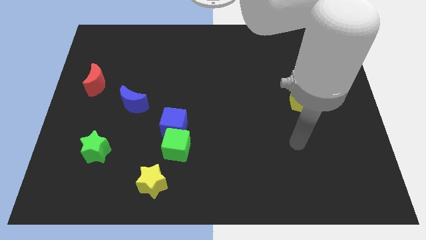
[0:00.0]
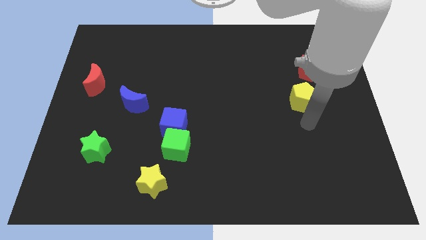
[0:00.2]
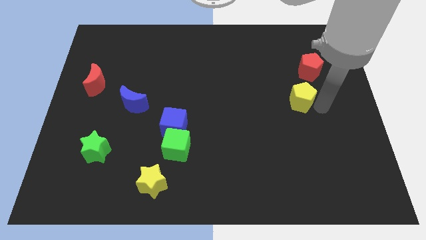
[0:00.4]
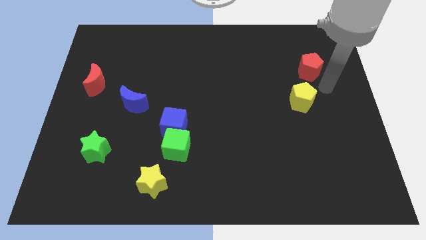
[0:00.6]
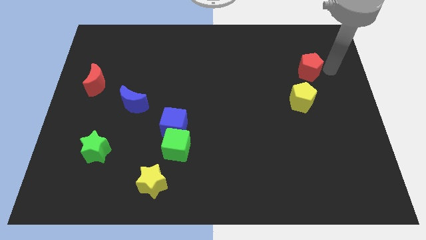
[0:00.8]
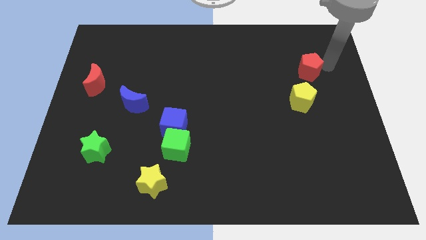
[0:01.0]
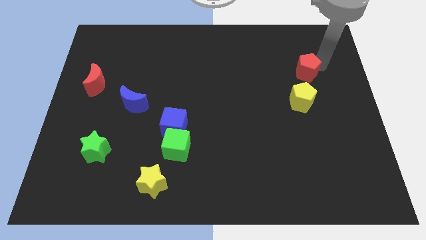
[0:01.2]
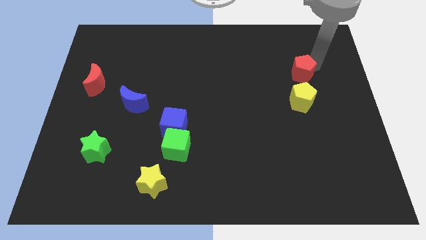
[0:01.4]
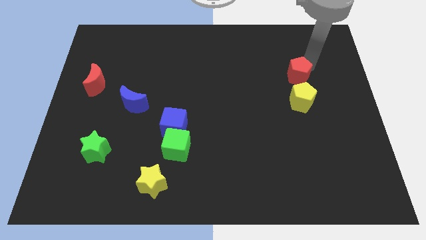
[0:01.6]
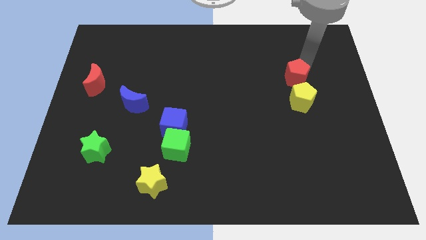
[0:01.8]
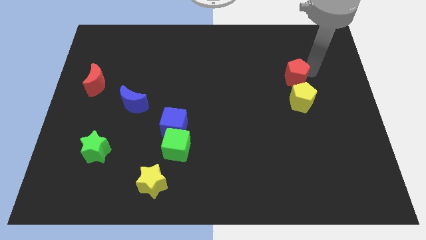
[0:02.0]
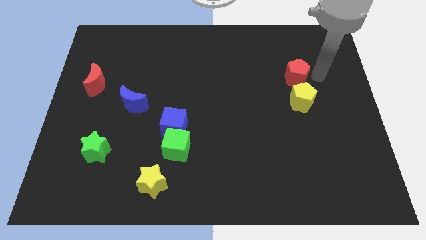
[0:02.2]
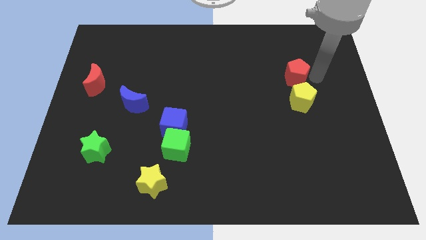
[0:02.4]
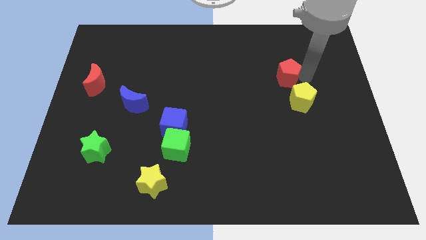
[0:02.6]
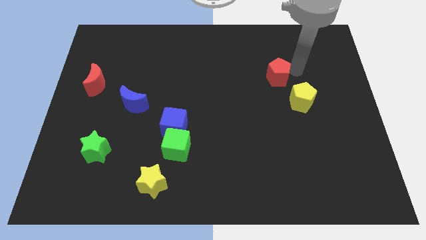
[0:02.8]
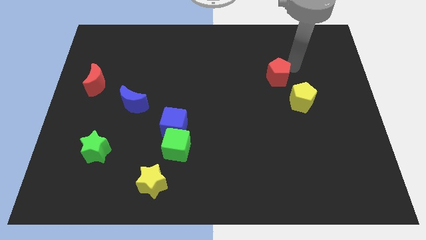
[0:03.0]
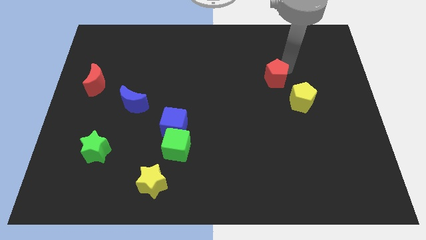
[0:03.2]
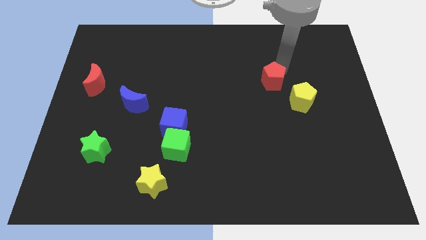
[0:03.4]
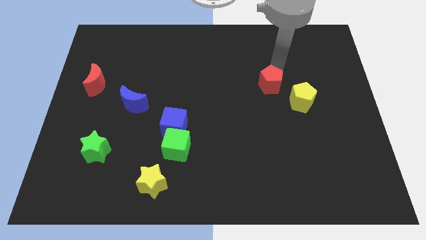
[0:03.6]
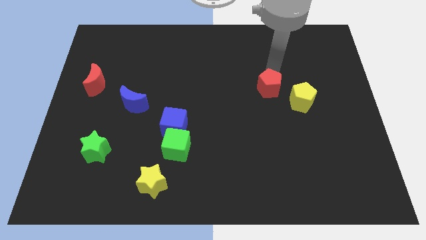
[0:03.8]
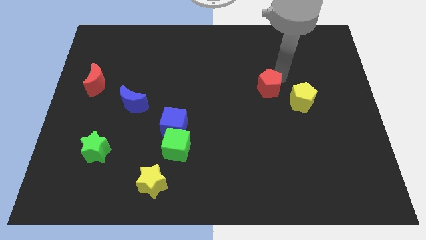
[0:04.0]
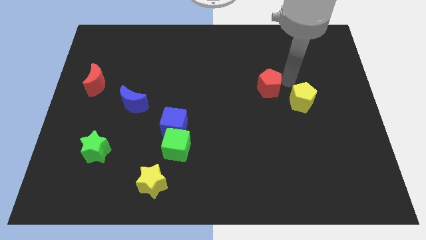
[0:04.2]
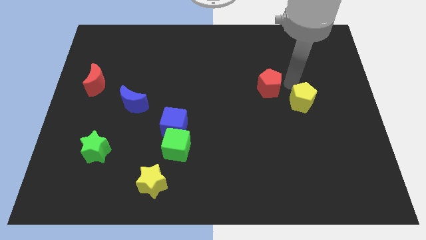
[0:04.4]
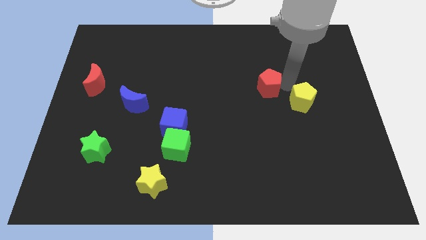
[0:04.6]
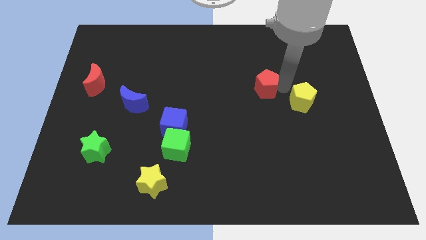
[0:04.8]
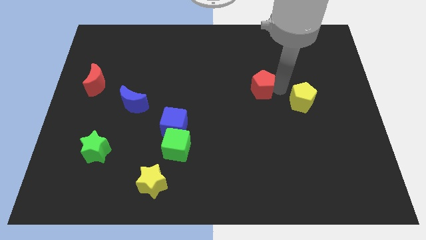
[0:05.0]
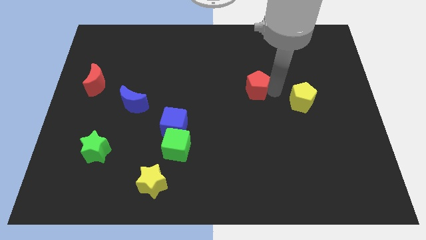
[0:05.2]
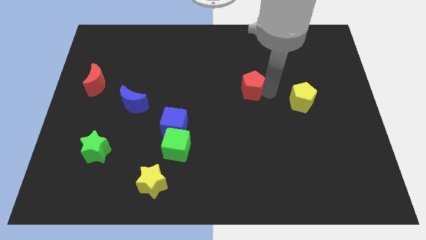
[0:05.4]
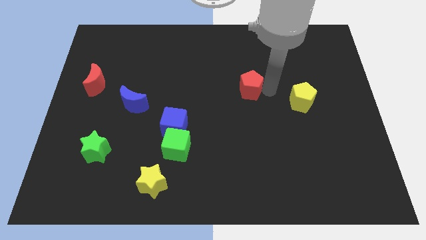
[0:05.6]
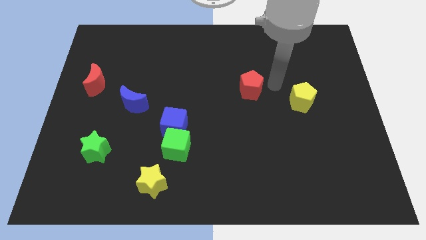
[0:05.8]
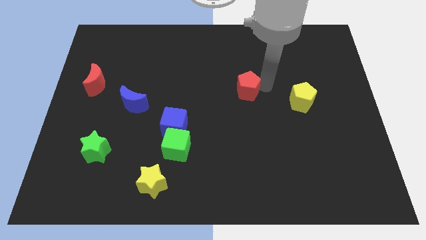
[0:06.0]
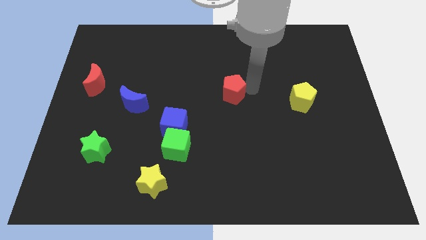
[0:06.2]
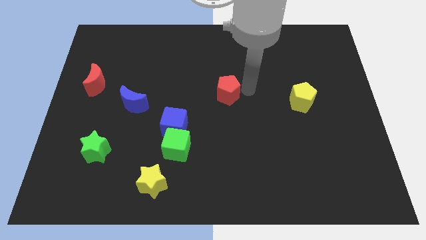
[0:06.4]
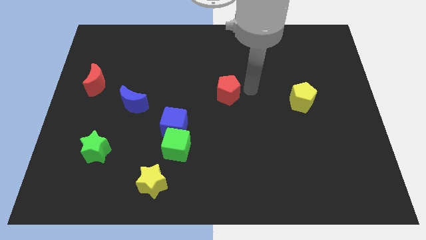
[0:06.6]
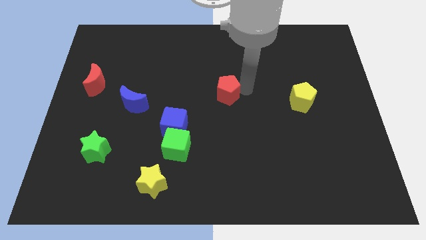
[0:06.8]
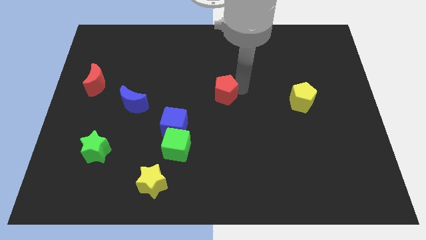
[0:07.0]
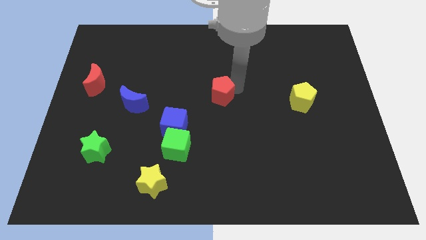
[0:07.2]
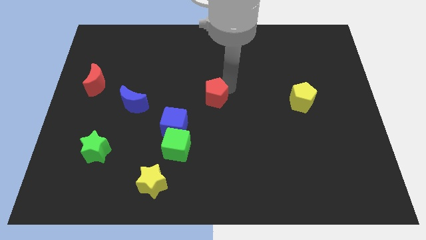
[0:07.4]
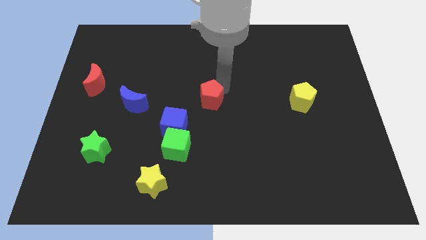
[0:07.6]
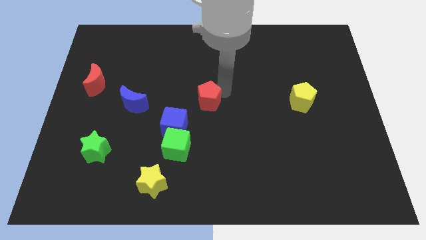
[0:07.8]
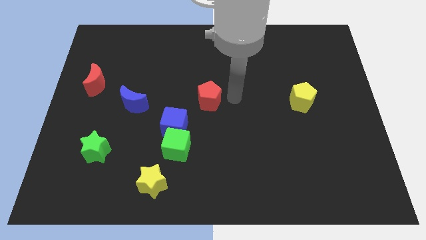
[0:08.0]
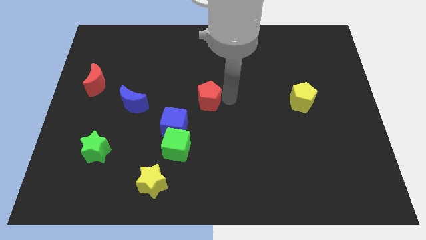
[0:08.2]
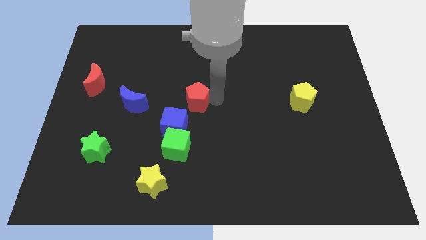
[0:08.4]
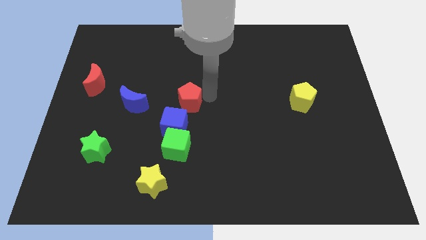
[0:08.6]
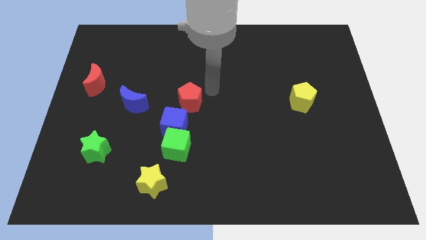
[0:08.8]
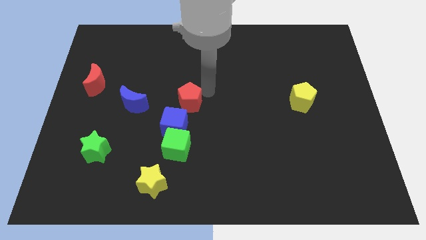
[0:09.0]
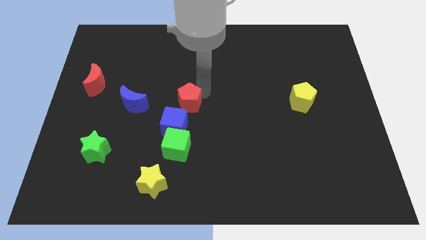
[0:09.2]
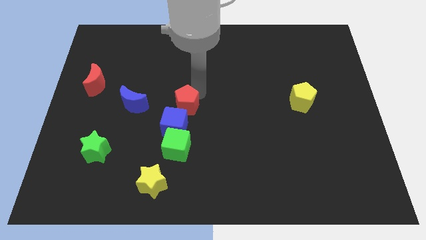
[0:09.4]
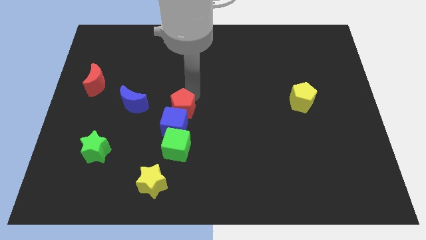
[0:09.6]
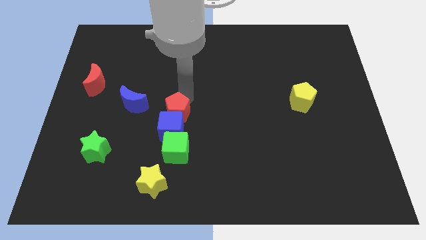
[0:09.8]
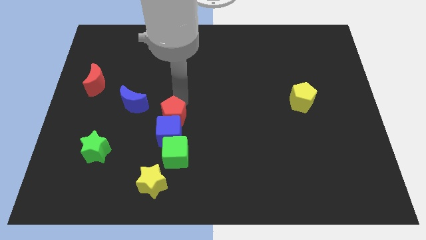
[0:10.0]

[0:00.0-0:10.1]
slide the red pentagon to the bottom right side of the blue moon

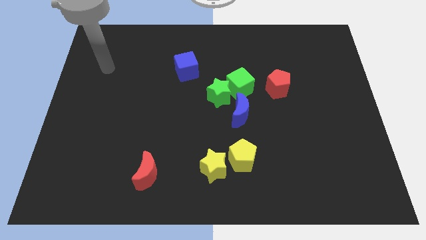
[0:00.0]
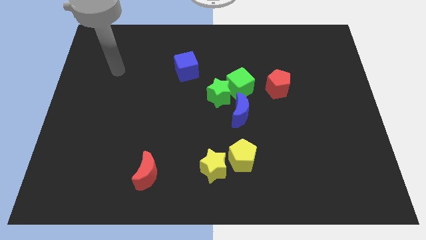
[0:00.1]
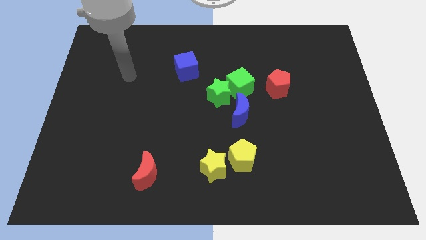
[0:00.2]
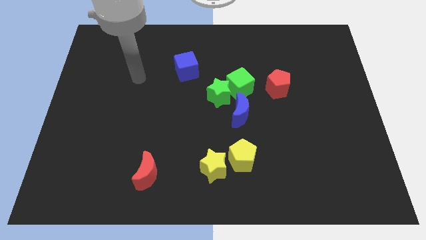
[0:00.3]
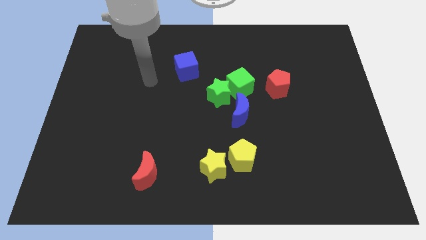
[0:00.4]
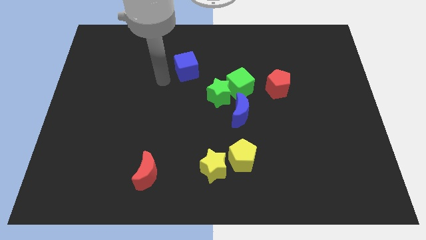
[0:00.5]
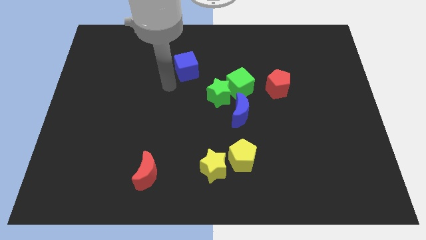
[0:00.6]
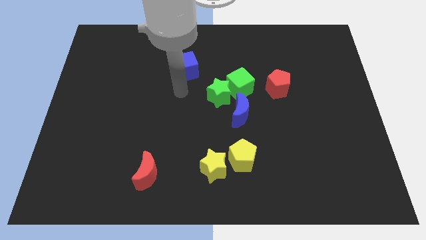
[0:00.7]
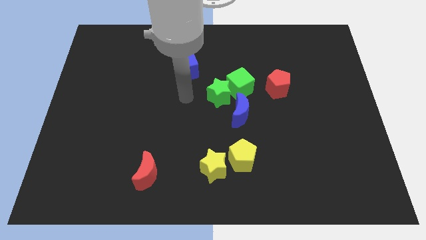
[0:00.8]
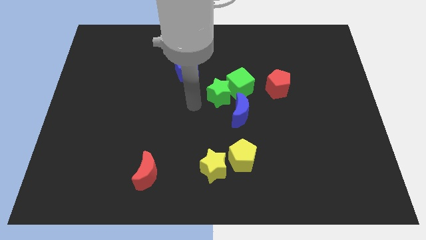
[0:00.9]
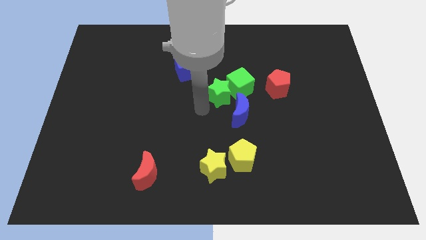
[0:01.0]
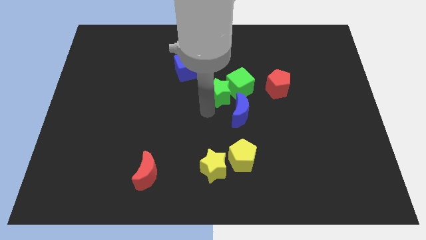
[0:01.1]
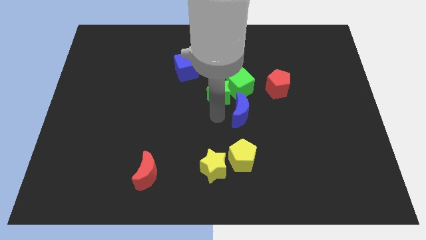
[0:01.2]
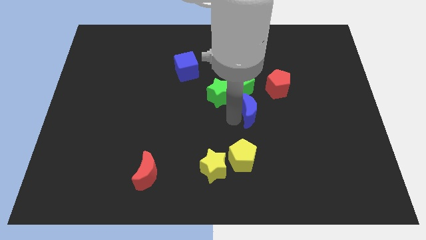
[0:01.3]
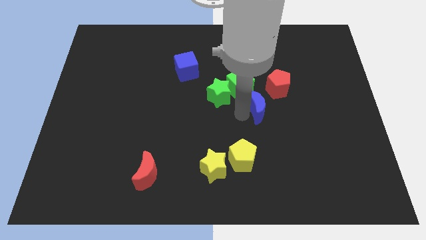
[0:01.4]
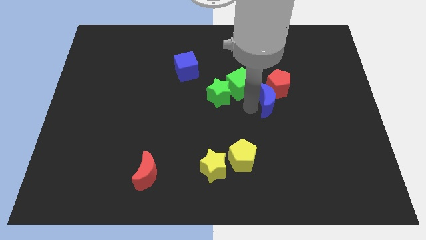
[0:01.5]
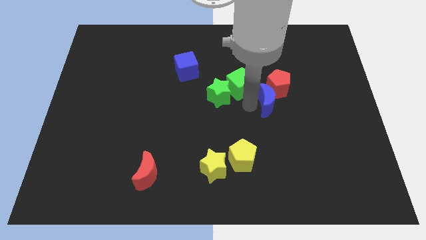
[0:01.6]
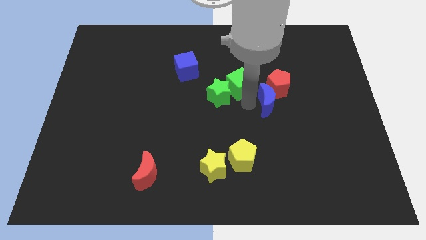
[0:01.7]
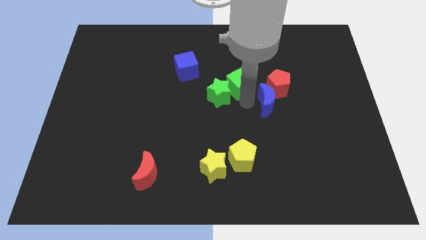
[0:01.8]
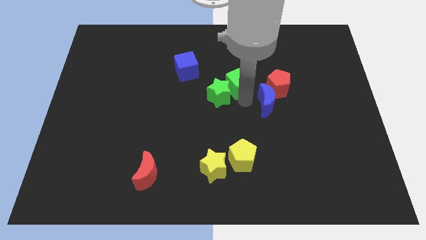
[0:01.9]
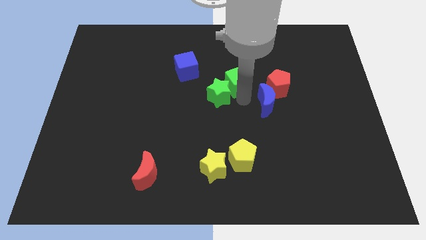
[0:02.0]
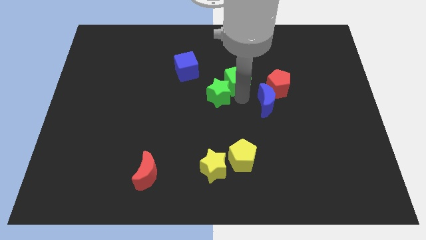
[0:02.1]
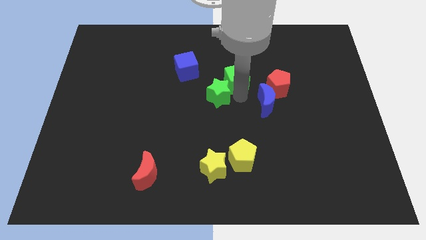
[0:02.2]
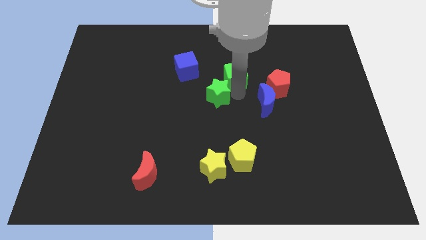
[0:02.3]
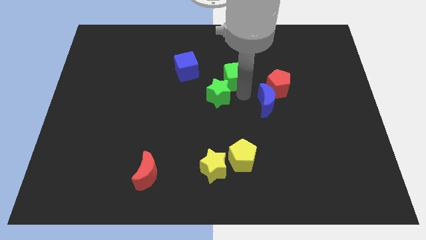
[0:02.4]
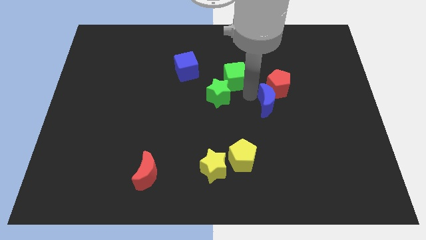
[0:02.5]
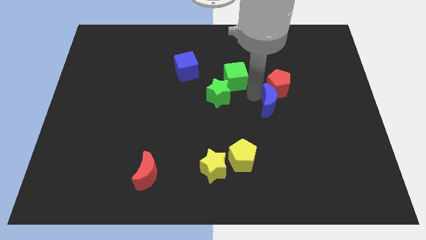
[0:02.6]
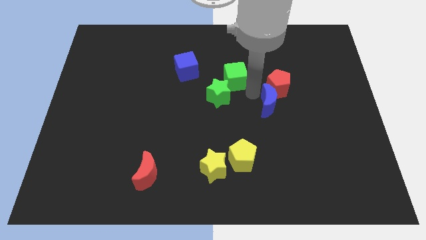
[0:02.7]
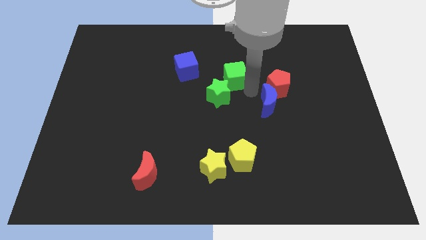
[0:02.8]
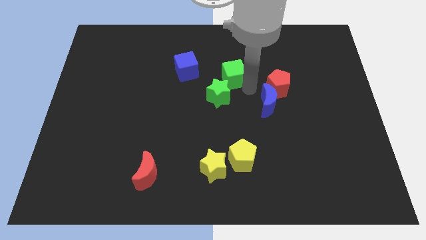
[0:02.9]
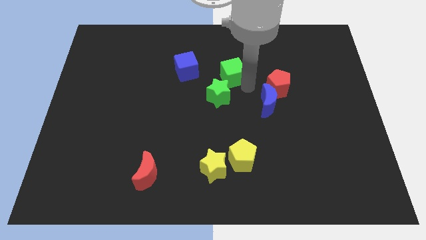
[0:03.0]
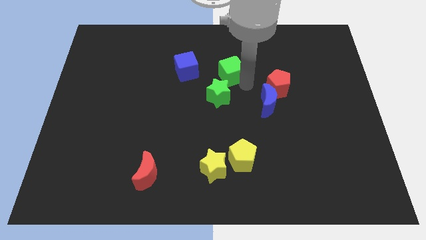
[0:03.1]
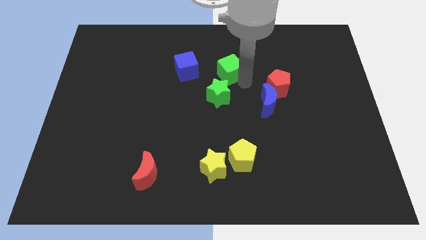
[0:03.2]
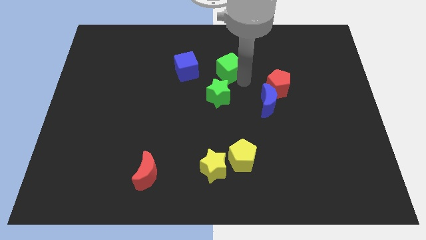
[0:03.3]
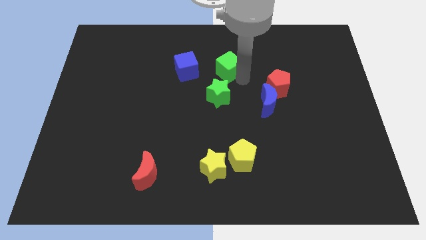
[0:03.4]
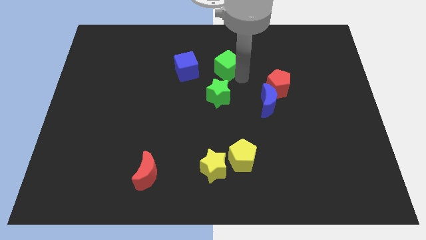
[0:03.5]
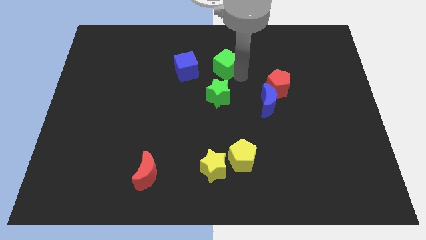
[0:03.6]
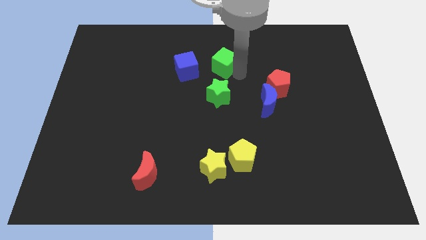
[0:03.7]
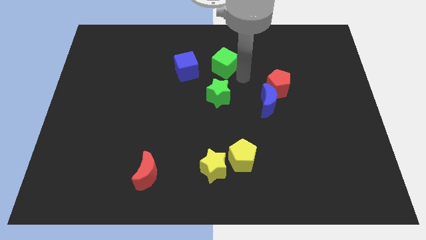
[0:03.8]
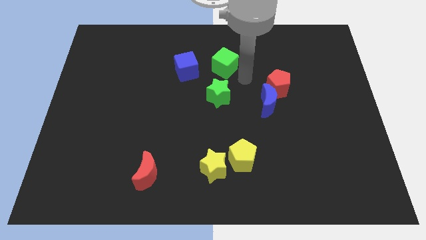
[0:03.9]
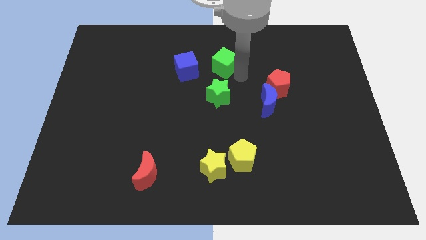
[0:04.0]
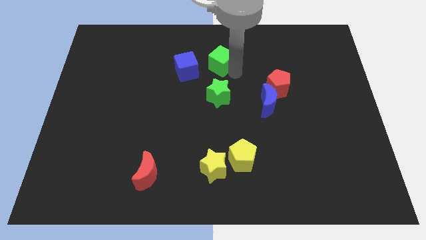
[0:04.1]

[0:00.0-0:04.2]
put the green cube to the top right of the blue cube
